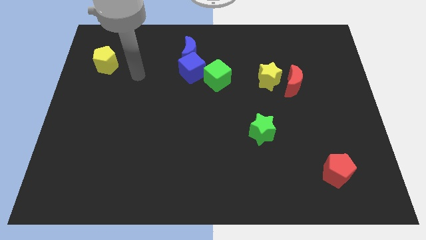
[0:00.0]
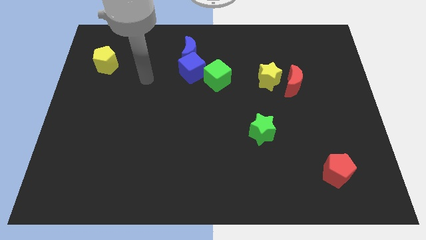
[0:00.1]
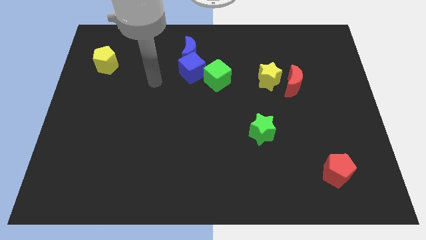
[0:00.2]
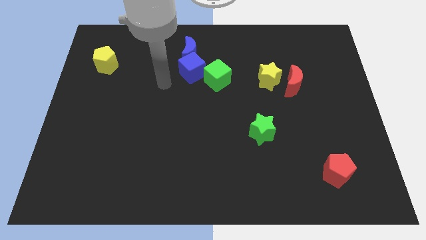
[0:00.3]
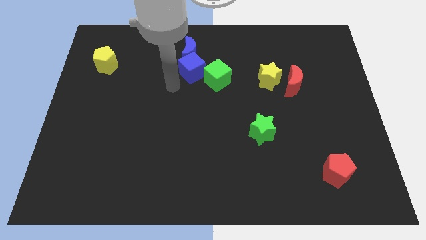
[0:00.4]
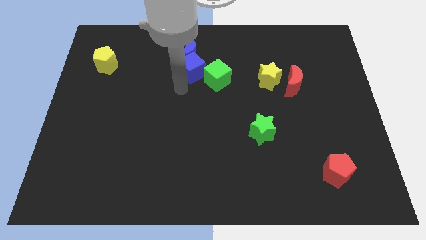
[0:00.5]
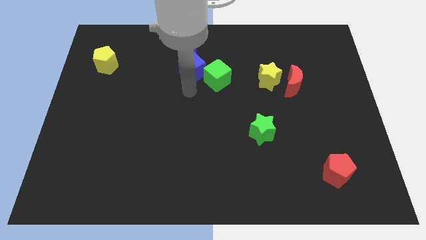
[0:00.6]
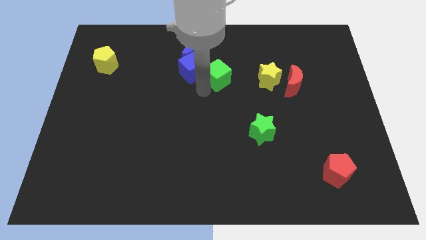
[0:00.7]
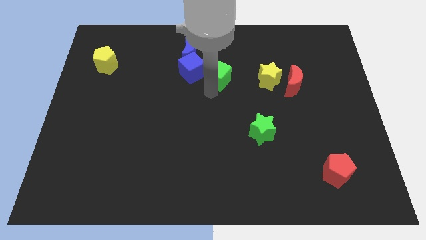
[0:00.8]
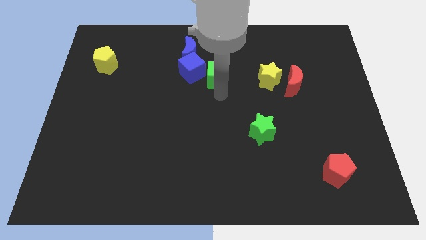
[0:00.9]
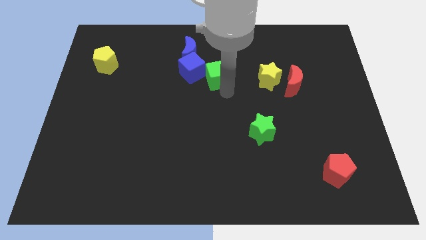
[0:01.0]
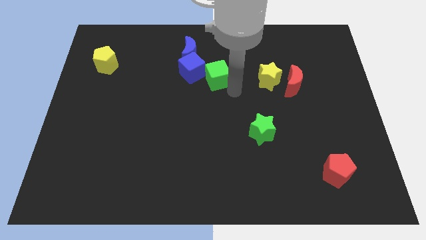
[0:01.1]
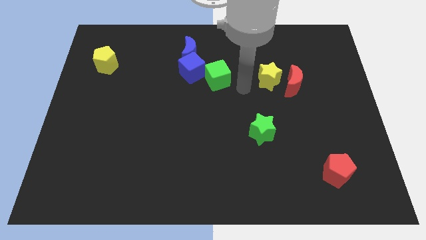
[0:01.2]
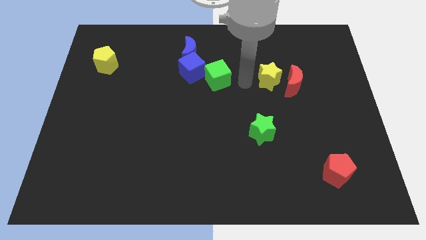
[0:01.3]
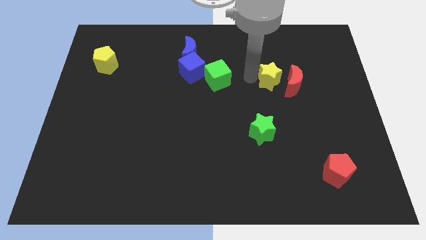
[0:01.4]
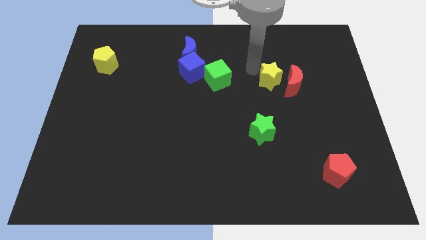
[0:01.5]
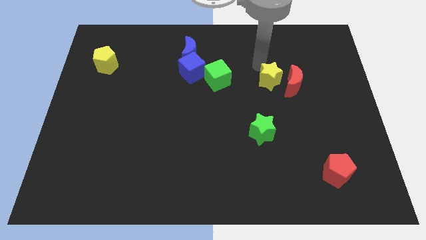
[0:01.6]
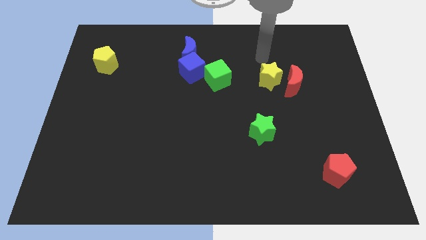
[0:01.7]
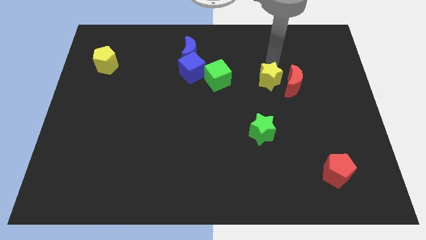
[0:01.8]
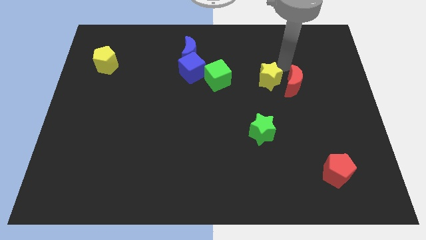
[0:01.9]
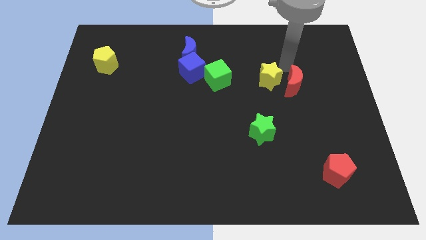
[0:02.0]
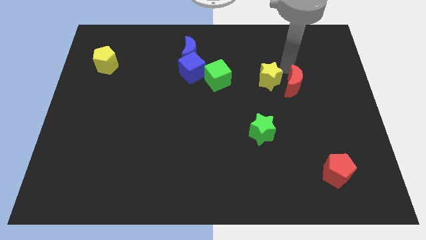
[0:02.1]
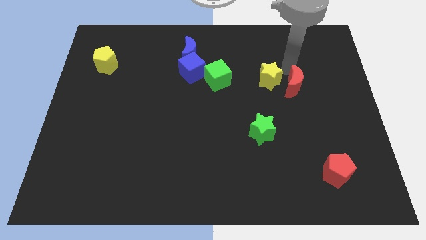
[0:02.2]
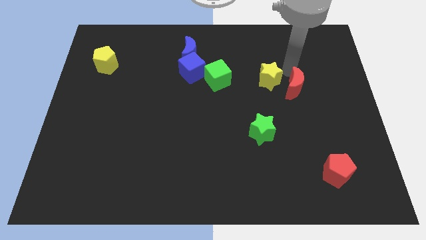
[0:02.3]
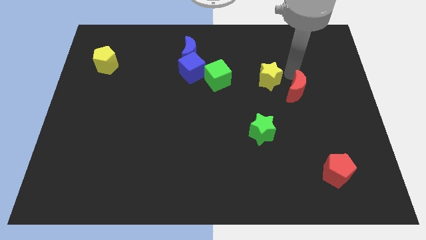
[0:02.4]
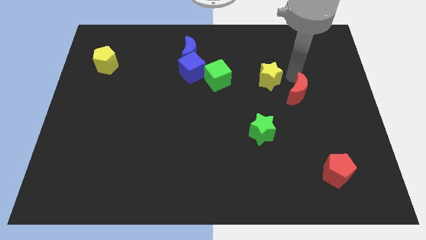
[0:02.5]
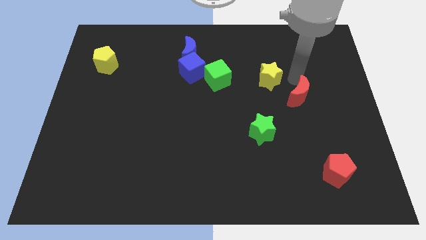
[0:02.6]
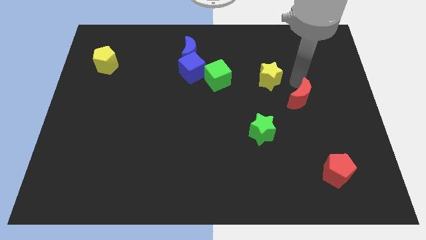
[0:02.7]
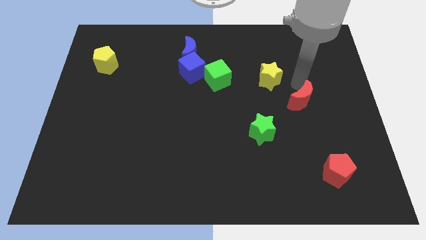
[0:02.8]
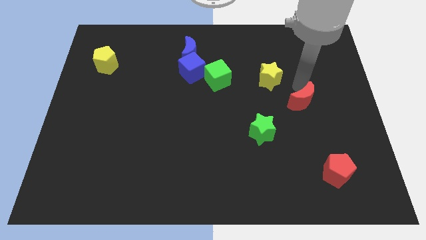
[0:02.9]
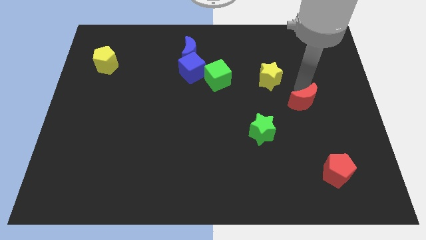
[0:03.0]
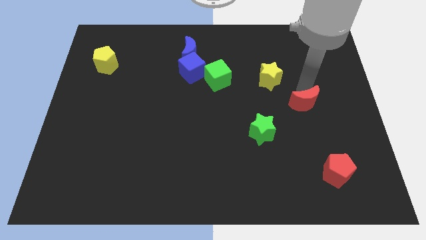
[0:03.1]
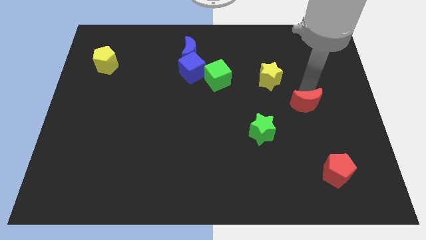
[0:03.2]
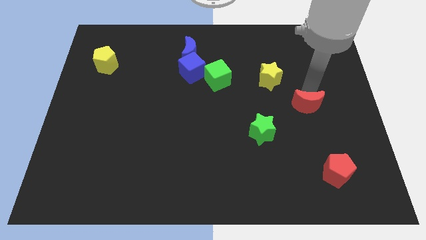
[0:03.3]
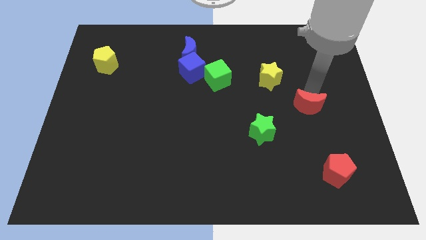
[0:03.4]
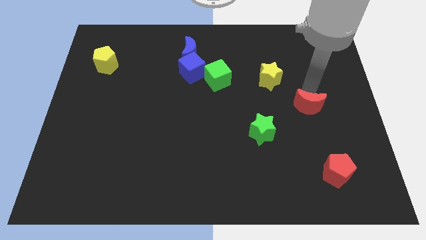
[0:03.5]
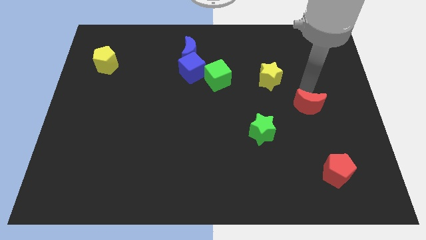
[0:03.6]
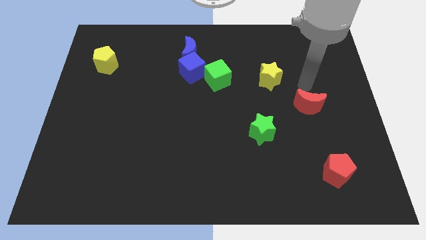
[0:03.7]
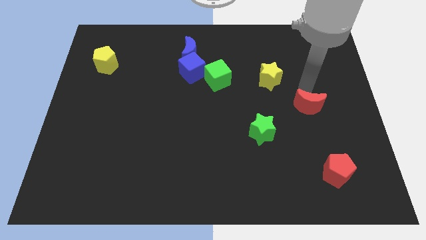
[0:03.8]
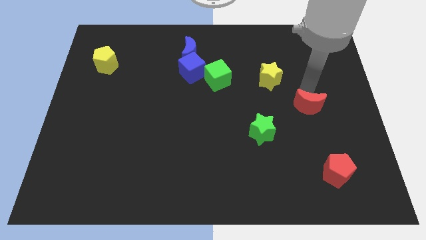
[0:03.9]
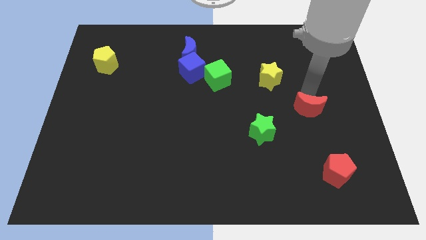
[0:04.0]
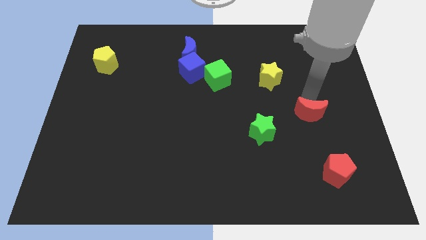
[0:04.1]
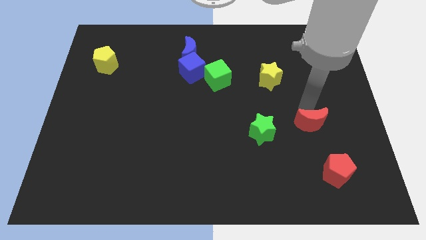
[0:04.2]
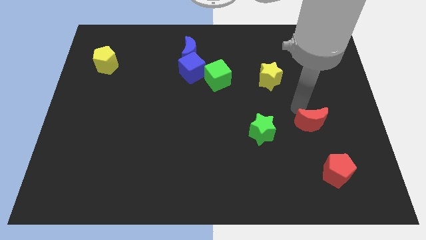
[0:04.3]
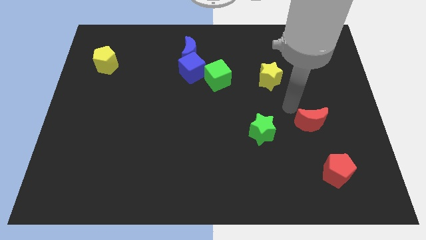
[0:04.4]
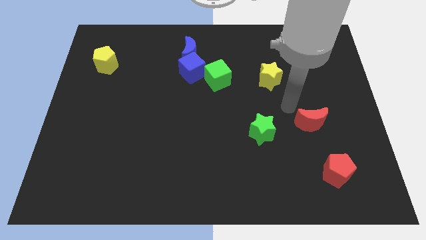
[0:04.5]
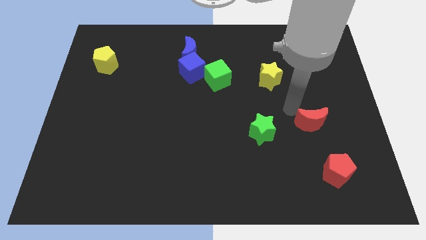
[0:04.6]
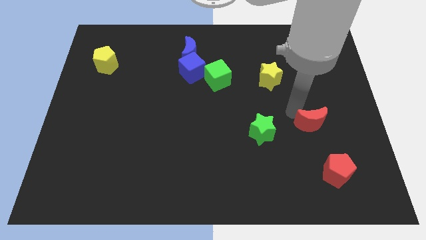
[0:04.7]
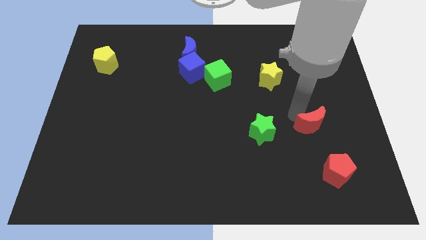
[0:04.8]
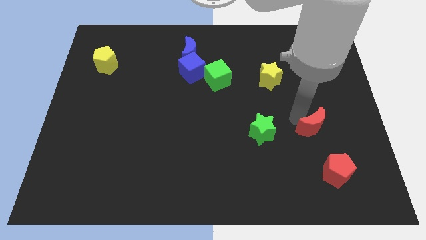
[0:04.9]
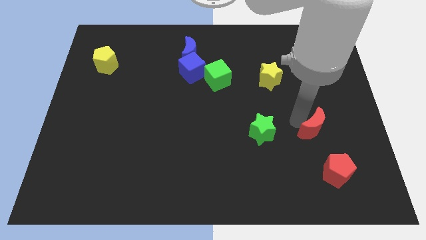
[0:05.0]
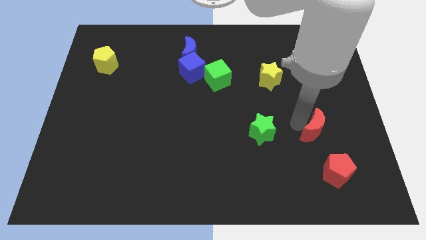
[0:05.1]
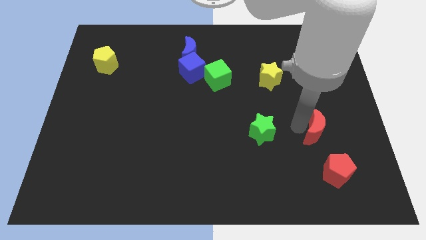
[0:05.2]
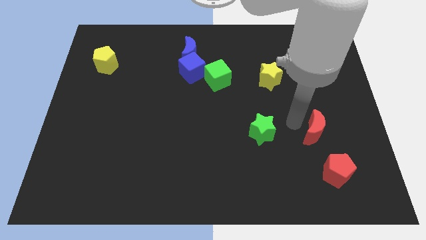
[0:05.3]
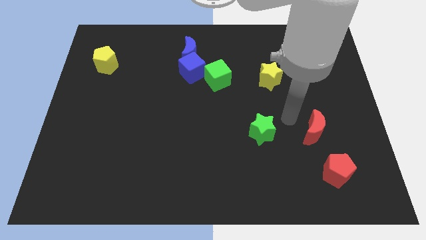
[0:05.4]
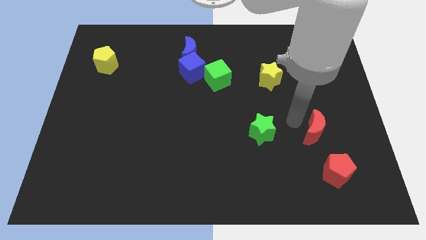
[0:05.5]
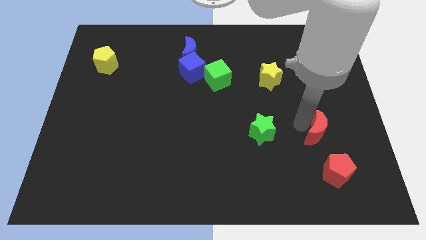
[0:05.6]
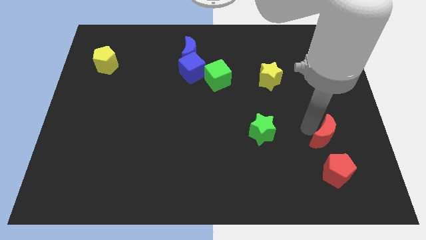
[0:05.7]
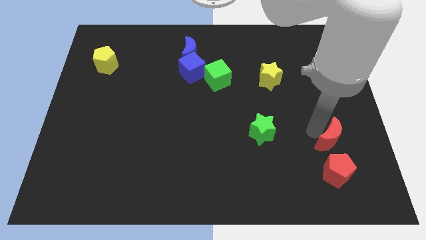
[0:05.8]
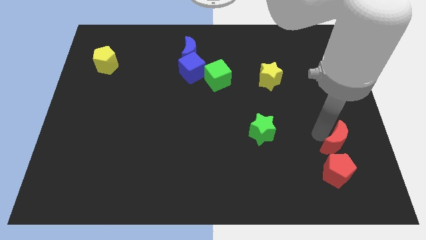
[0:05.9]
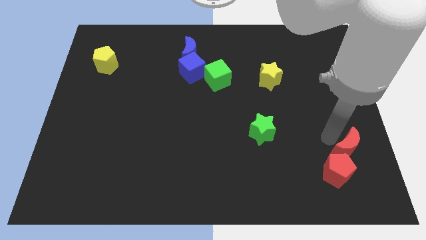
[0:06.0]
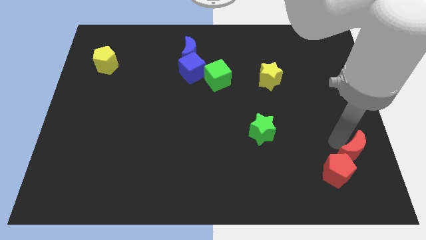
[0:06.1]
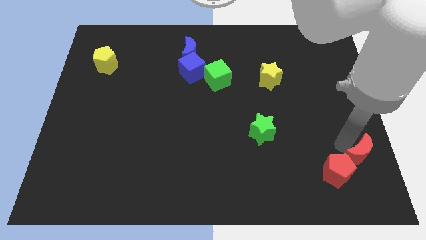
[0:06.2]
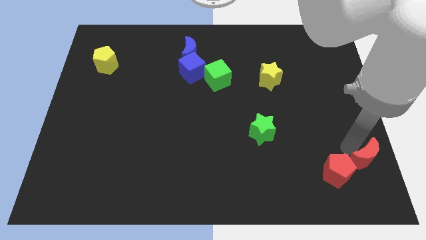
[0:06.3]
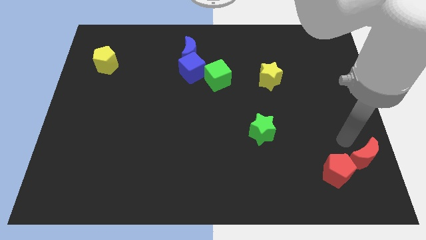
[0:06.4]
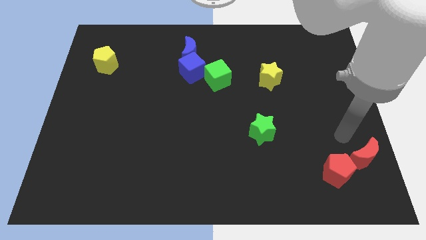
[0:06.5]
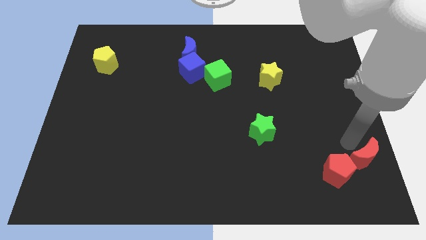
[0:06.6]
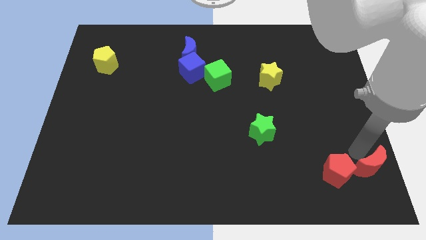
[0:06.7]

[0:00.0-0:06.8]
push the red moon to the bottom right of the board
